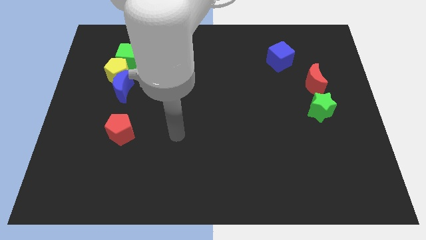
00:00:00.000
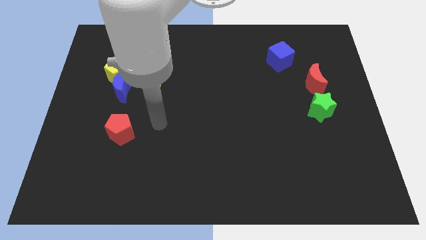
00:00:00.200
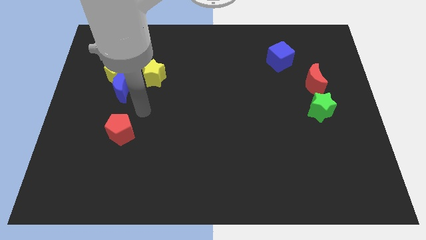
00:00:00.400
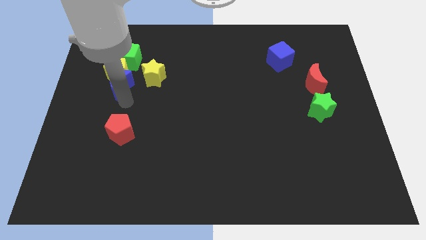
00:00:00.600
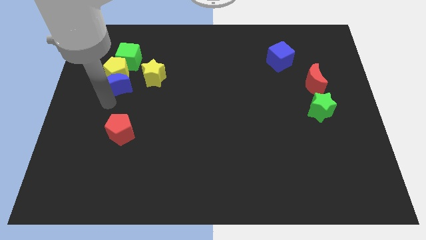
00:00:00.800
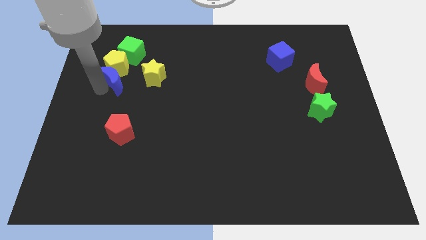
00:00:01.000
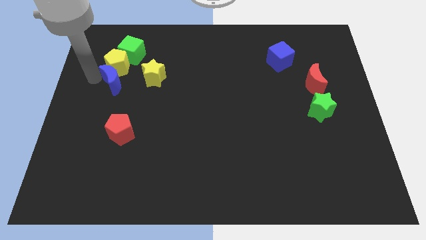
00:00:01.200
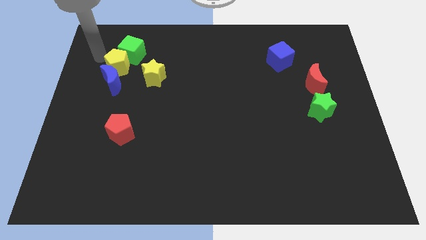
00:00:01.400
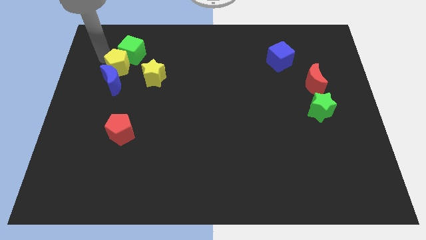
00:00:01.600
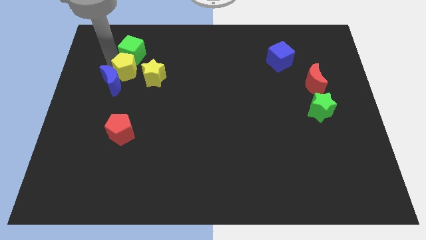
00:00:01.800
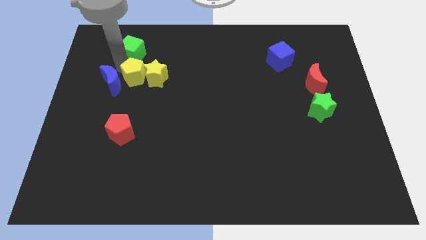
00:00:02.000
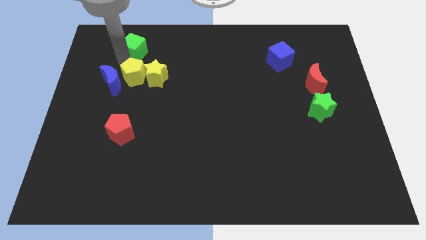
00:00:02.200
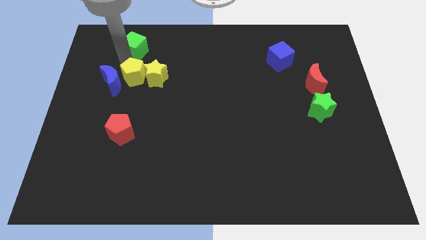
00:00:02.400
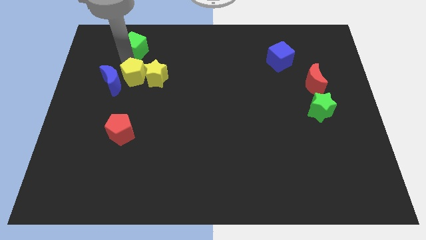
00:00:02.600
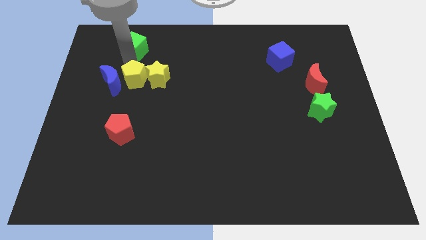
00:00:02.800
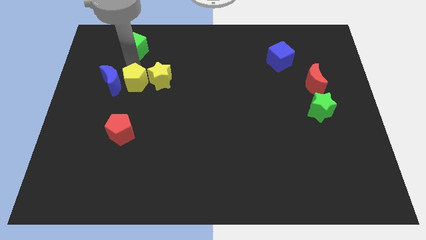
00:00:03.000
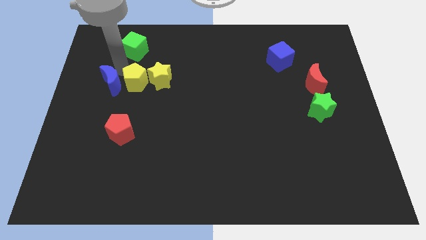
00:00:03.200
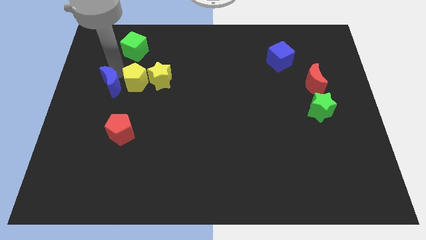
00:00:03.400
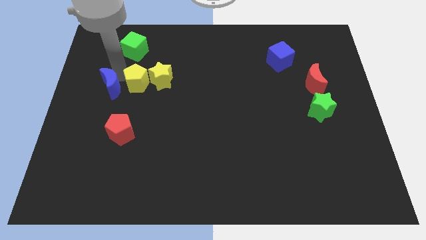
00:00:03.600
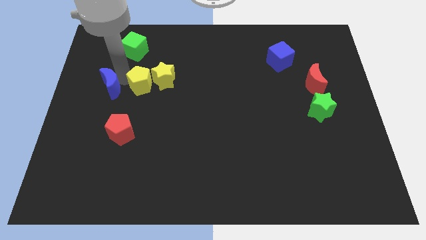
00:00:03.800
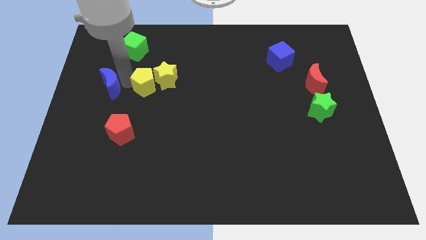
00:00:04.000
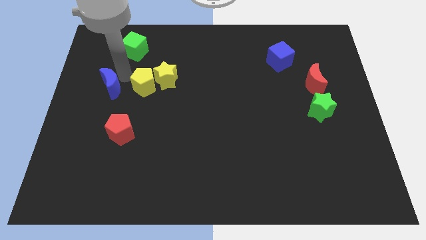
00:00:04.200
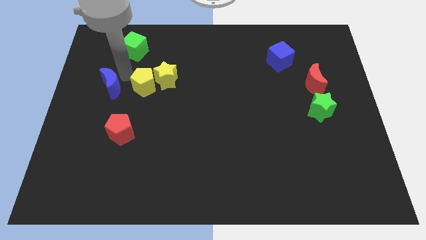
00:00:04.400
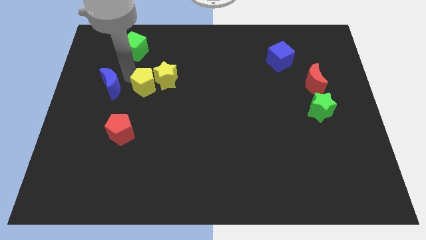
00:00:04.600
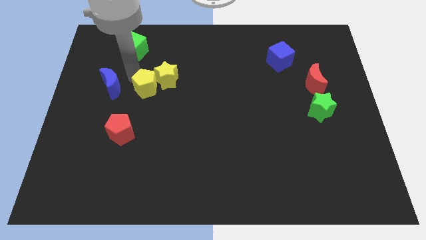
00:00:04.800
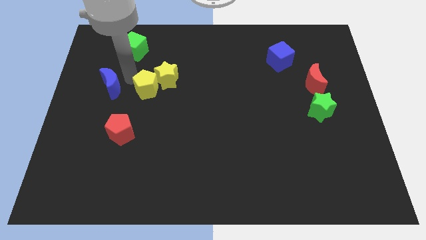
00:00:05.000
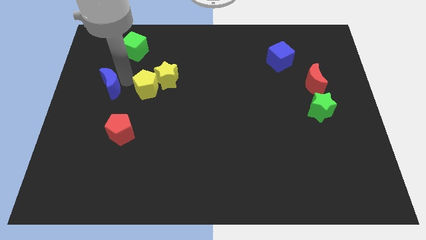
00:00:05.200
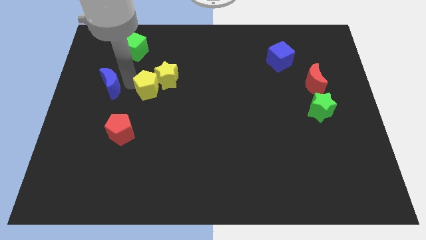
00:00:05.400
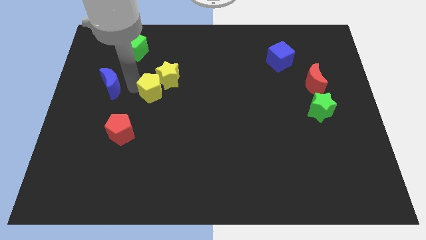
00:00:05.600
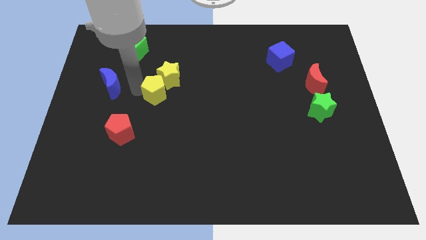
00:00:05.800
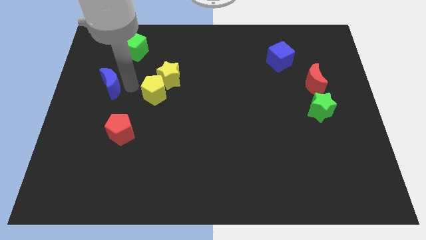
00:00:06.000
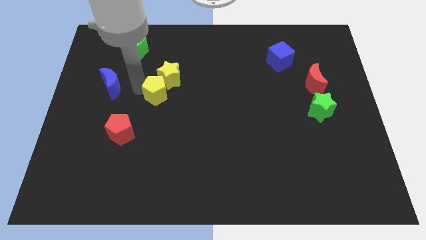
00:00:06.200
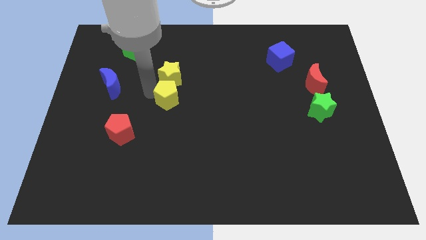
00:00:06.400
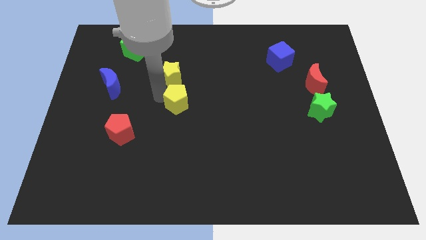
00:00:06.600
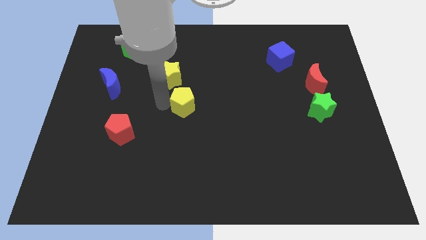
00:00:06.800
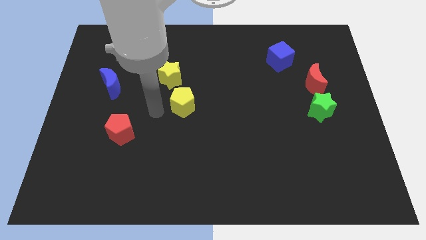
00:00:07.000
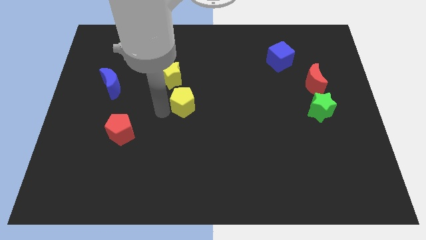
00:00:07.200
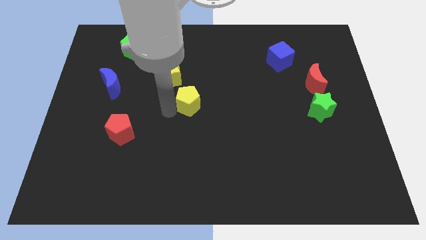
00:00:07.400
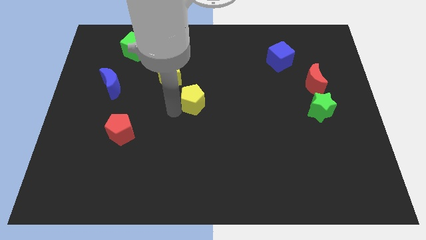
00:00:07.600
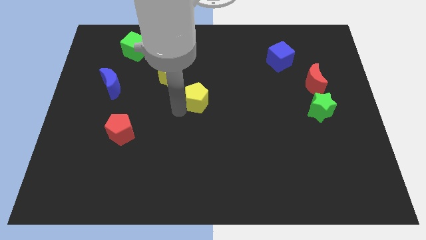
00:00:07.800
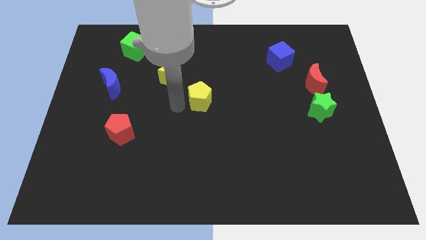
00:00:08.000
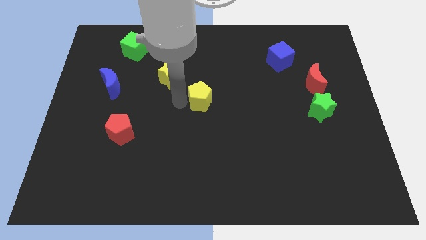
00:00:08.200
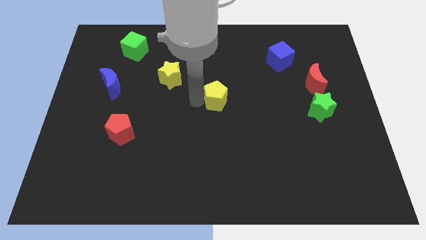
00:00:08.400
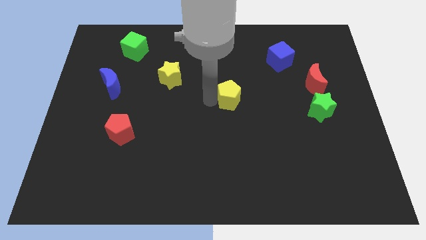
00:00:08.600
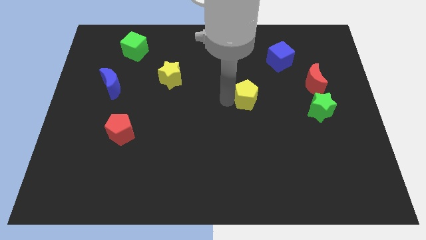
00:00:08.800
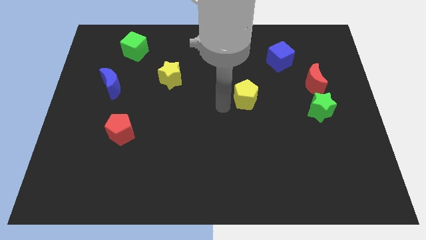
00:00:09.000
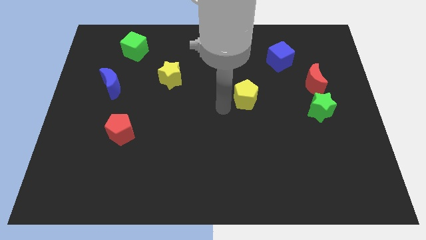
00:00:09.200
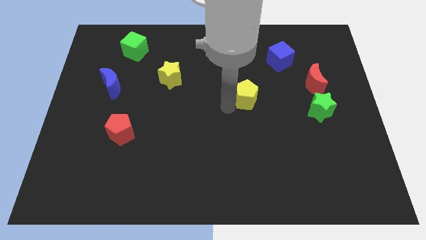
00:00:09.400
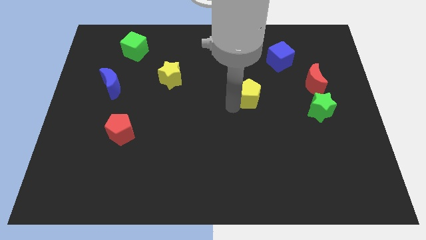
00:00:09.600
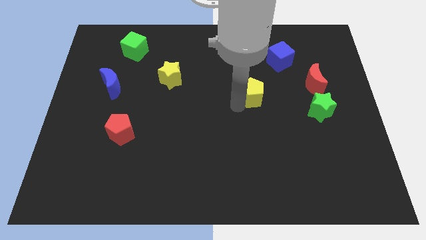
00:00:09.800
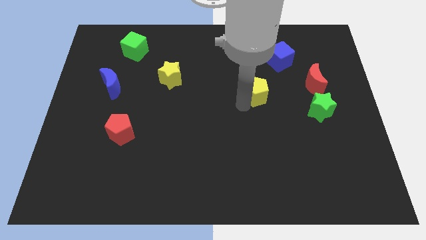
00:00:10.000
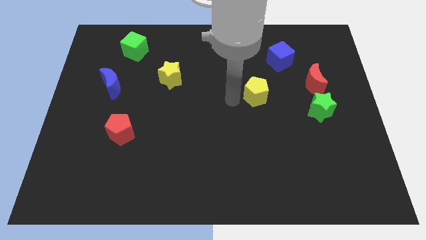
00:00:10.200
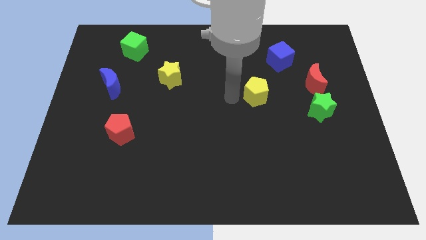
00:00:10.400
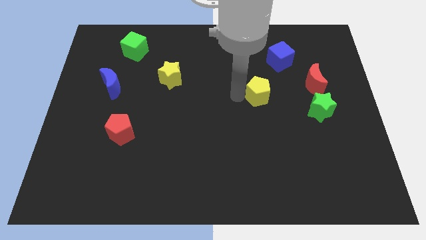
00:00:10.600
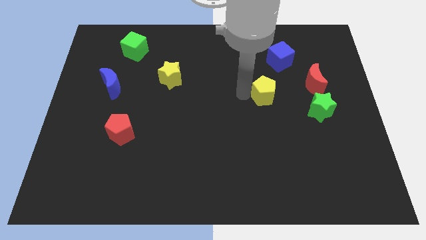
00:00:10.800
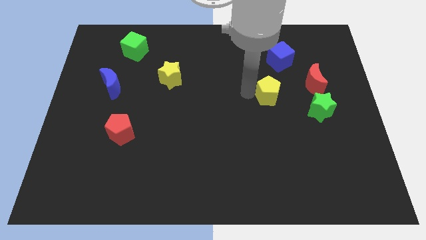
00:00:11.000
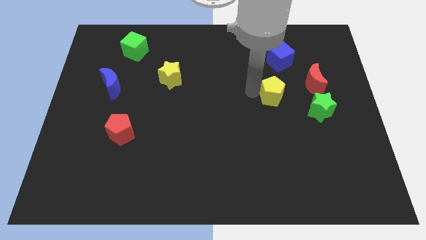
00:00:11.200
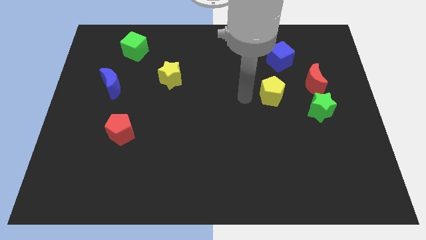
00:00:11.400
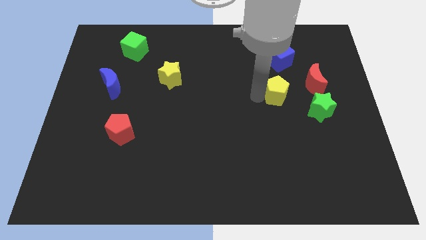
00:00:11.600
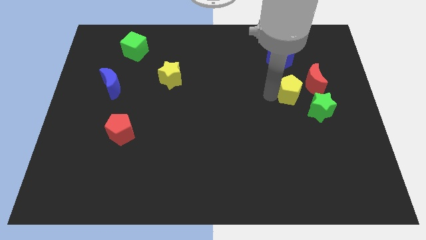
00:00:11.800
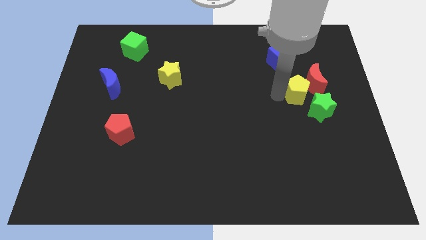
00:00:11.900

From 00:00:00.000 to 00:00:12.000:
slide the yellow pentagon to the red moon

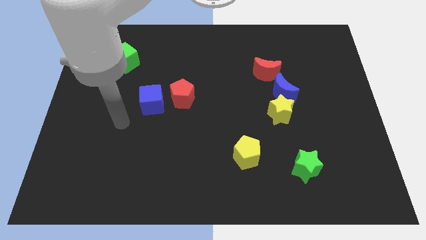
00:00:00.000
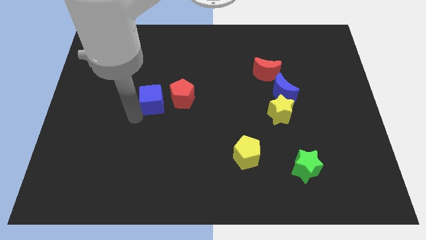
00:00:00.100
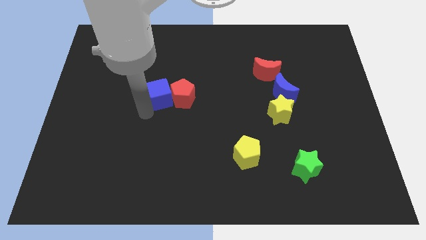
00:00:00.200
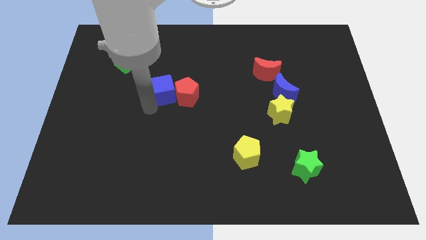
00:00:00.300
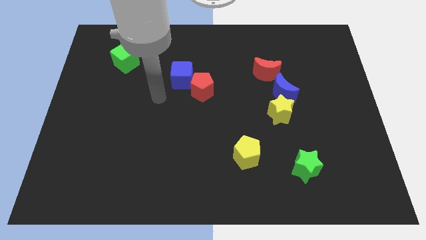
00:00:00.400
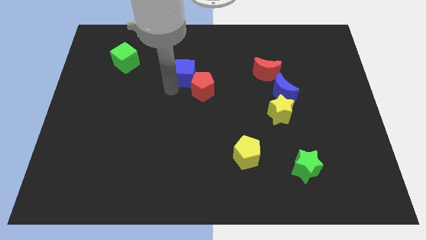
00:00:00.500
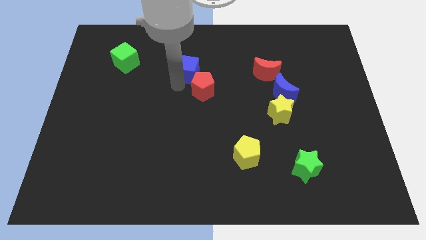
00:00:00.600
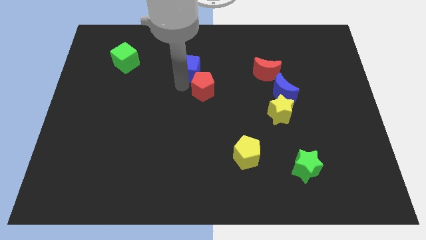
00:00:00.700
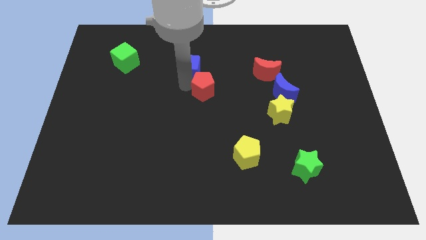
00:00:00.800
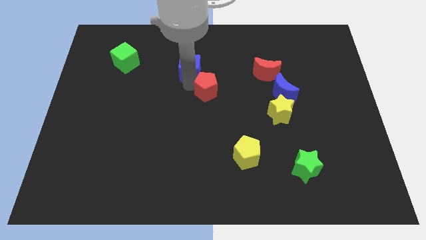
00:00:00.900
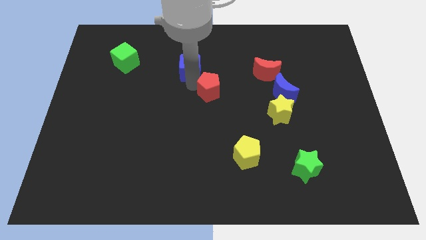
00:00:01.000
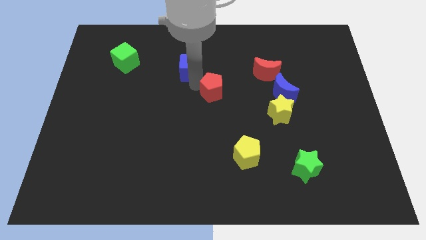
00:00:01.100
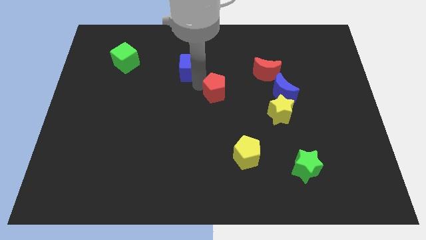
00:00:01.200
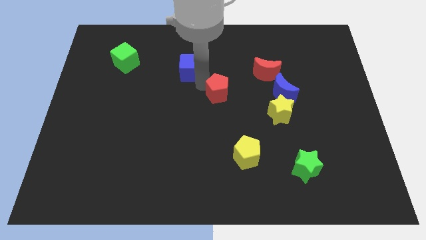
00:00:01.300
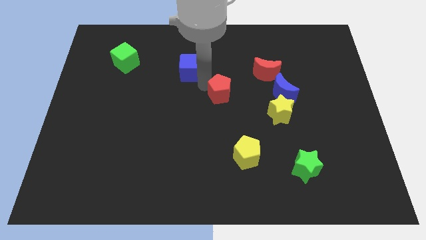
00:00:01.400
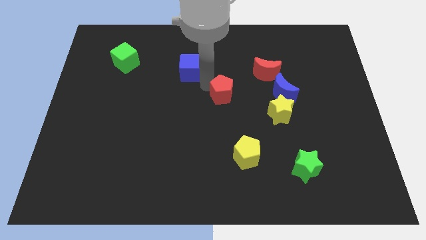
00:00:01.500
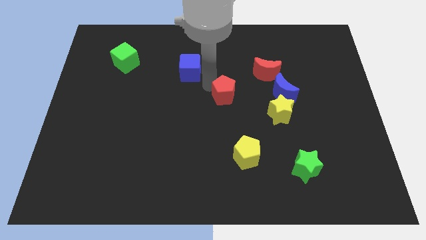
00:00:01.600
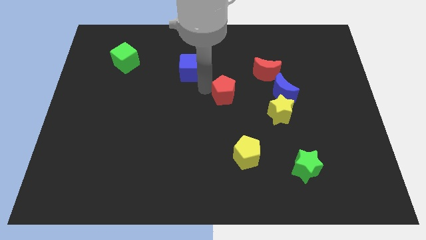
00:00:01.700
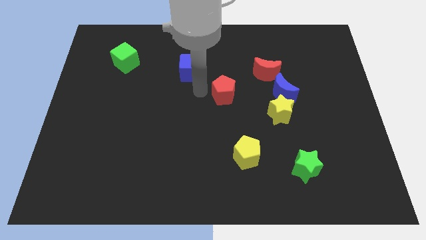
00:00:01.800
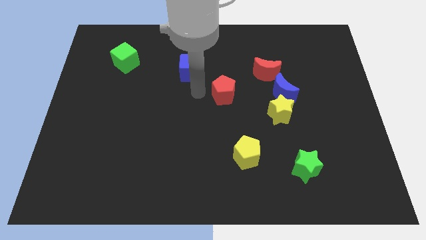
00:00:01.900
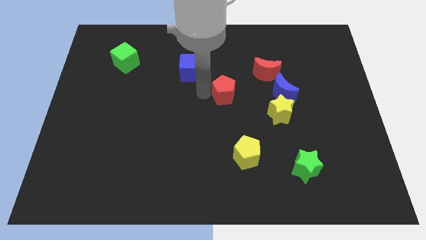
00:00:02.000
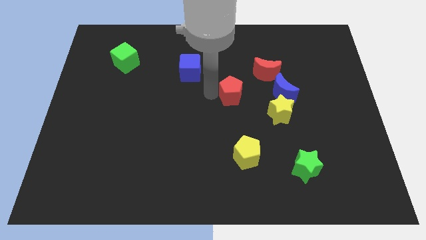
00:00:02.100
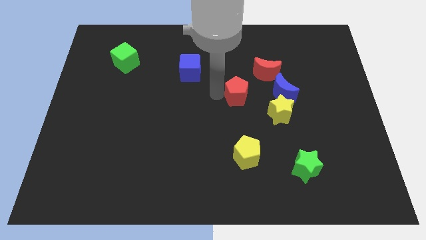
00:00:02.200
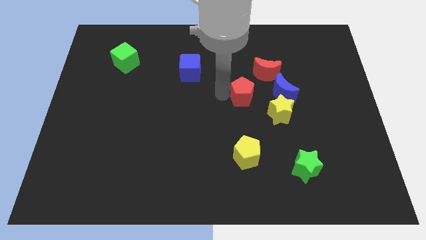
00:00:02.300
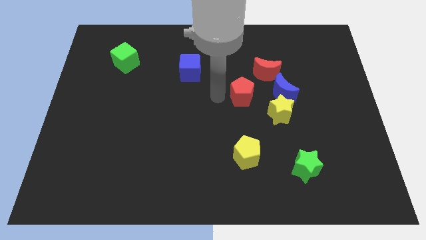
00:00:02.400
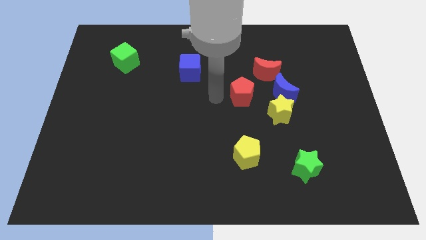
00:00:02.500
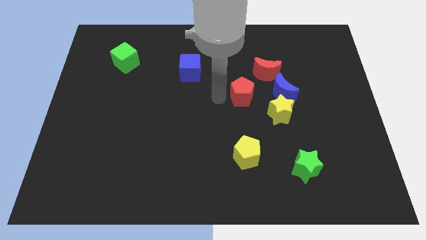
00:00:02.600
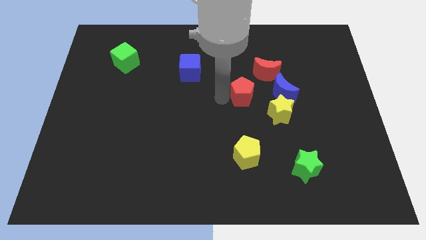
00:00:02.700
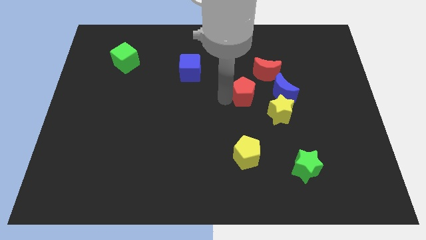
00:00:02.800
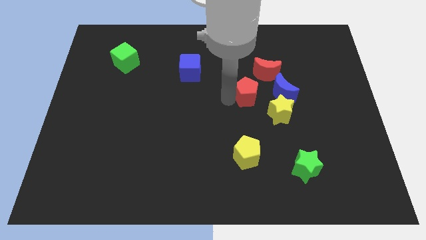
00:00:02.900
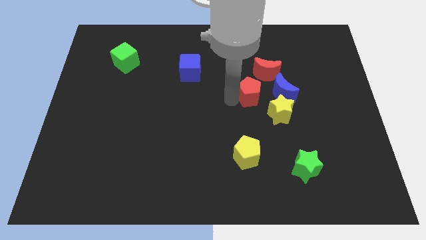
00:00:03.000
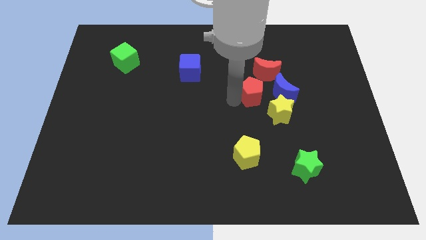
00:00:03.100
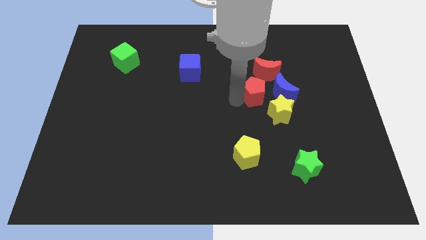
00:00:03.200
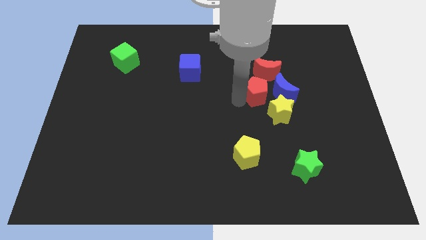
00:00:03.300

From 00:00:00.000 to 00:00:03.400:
move the red pentagon towards the blue moon
